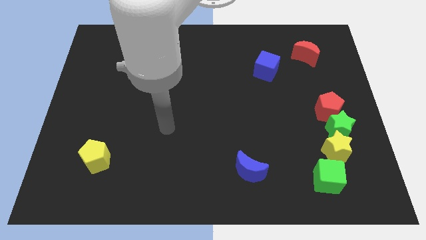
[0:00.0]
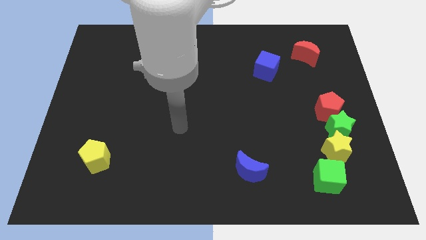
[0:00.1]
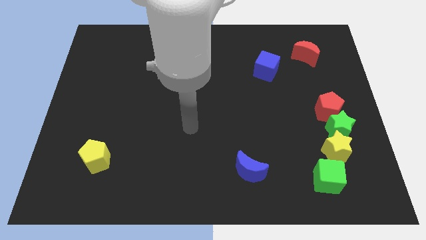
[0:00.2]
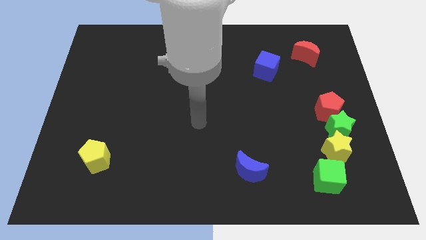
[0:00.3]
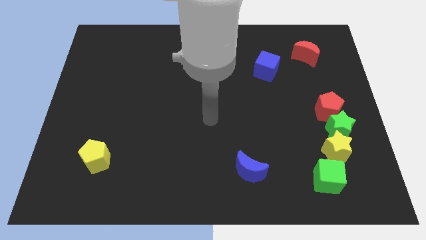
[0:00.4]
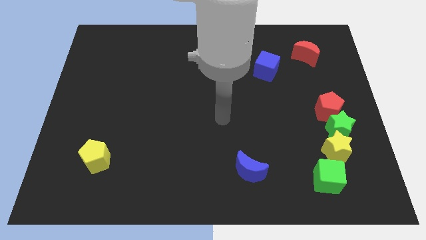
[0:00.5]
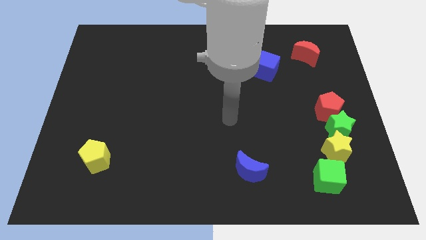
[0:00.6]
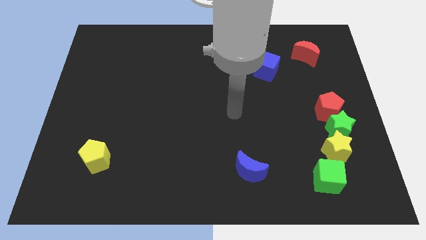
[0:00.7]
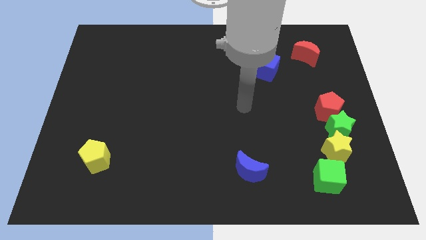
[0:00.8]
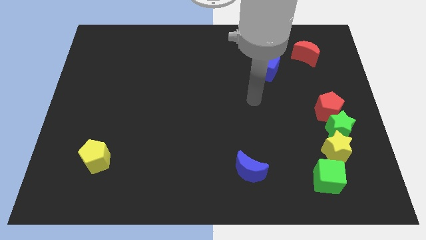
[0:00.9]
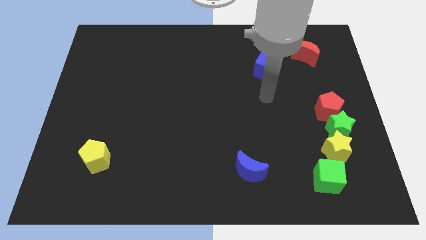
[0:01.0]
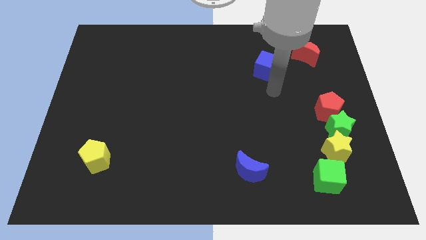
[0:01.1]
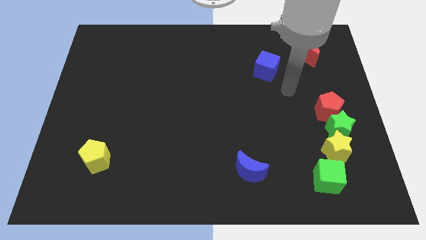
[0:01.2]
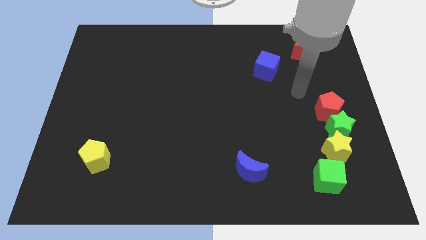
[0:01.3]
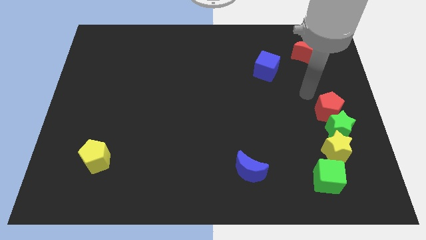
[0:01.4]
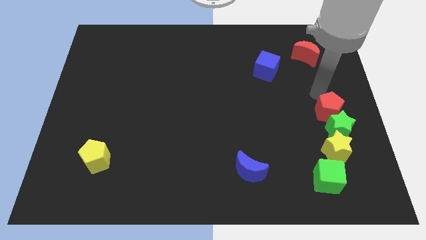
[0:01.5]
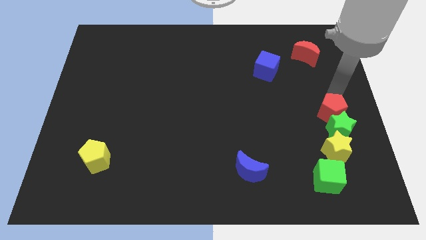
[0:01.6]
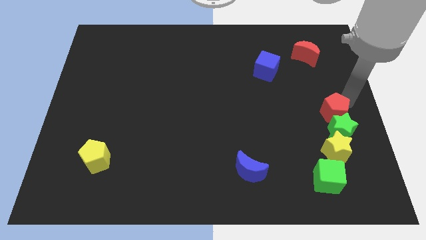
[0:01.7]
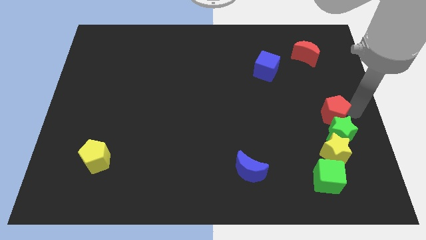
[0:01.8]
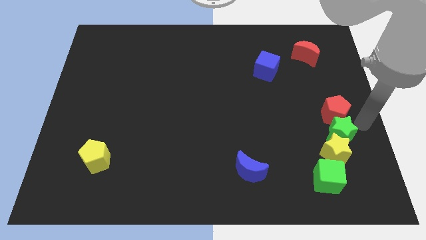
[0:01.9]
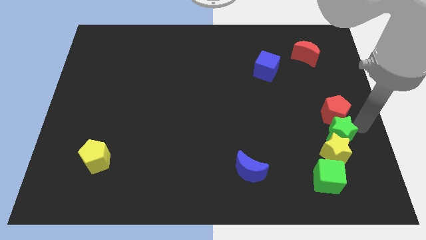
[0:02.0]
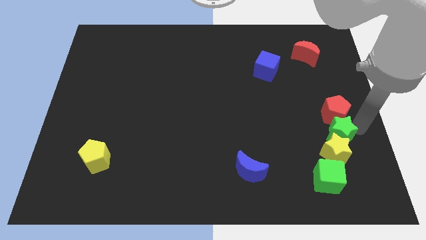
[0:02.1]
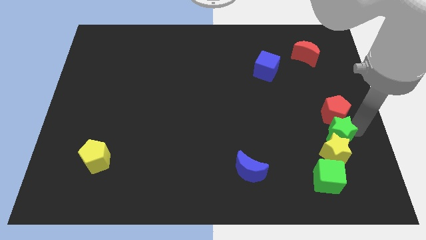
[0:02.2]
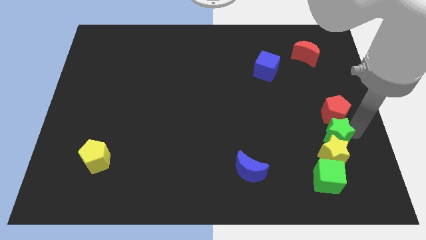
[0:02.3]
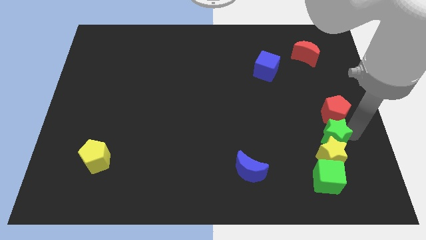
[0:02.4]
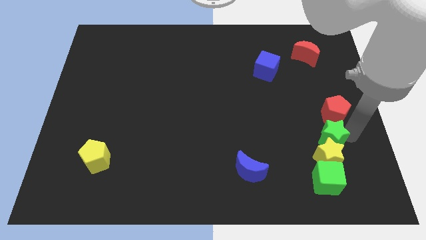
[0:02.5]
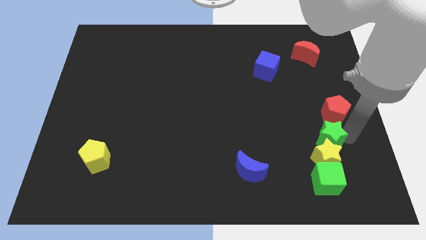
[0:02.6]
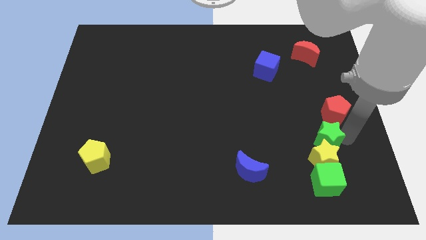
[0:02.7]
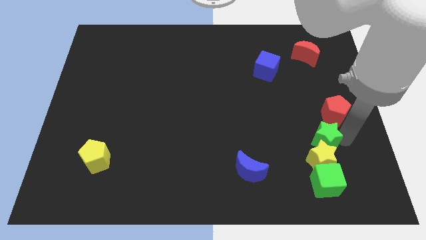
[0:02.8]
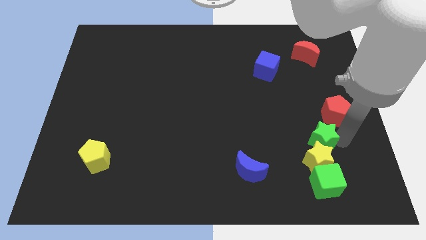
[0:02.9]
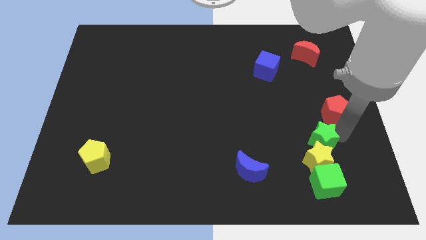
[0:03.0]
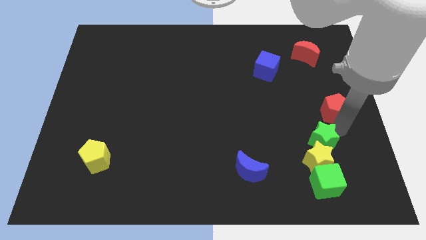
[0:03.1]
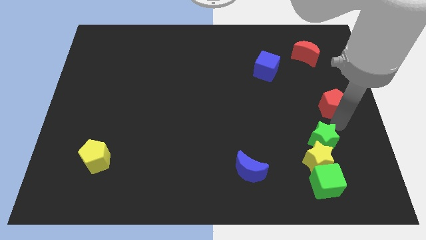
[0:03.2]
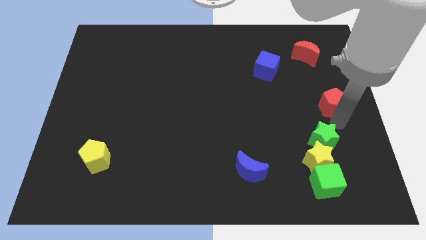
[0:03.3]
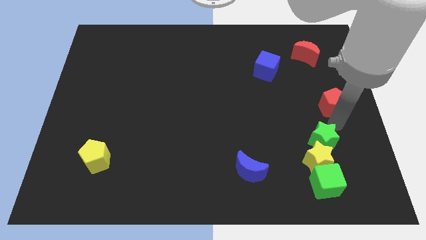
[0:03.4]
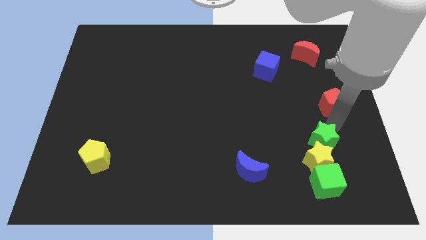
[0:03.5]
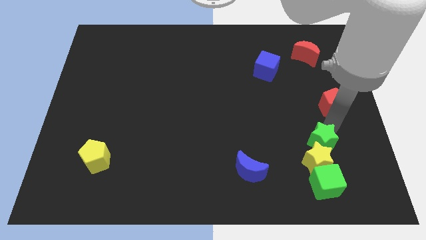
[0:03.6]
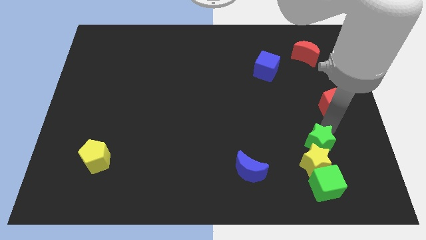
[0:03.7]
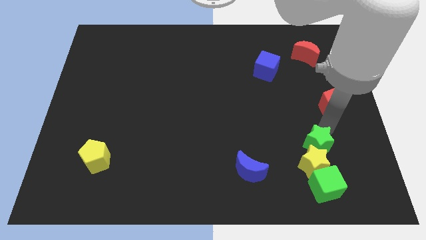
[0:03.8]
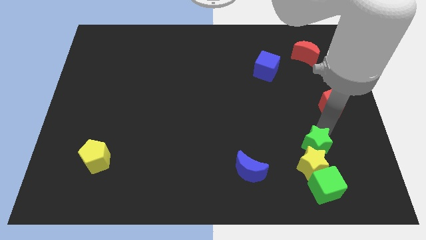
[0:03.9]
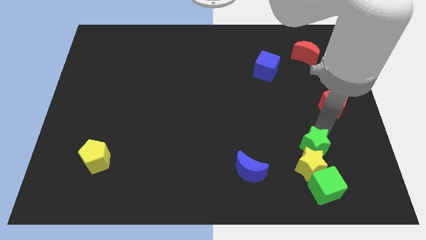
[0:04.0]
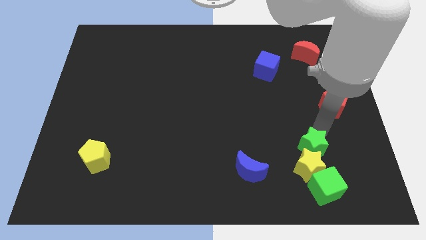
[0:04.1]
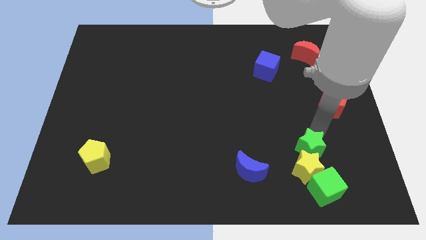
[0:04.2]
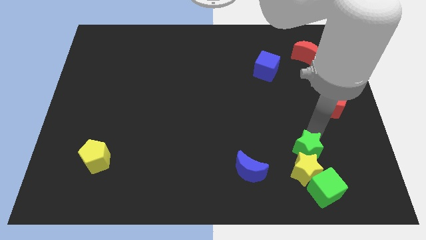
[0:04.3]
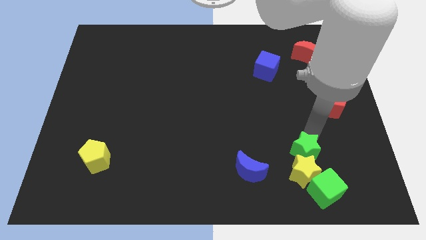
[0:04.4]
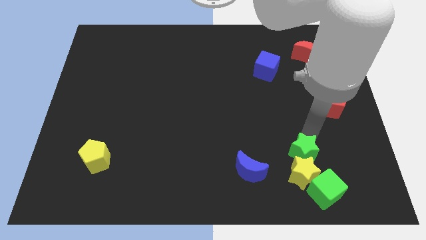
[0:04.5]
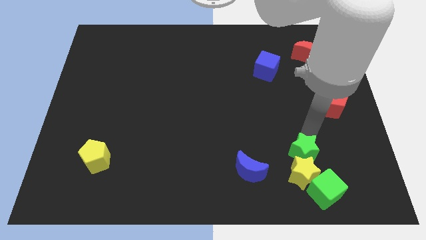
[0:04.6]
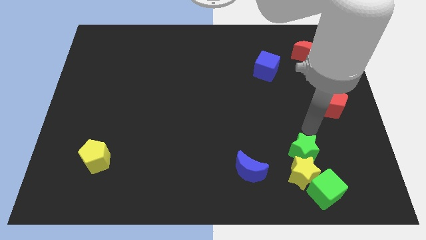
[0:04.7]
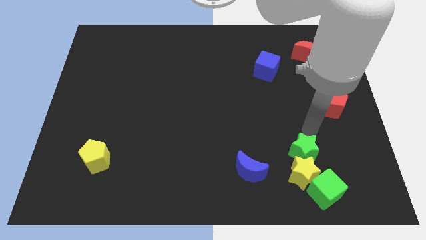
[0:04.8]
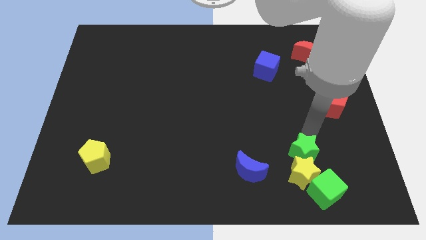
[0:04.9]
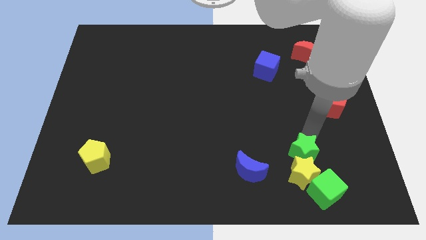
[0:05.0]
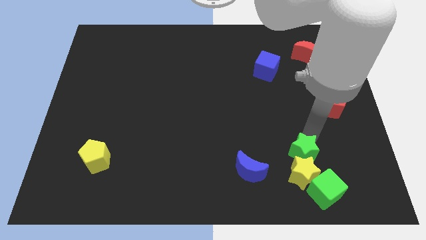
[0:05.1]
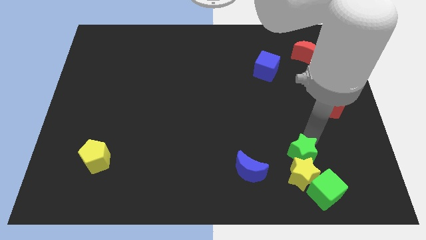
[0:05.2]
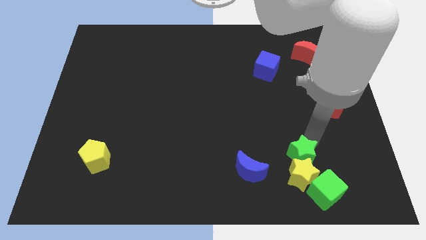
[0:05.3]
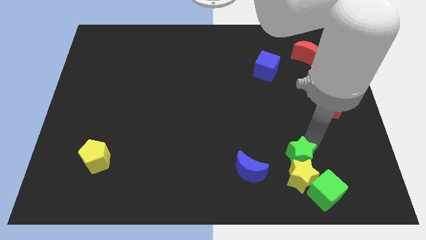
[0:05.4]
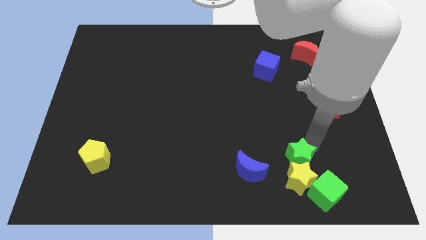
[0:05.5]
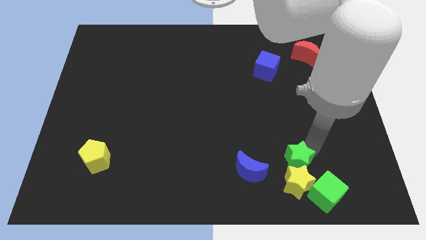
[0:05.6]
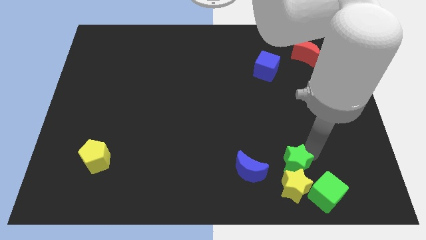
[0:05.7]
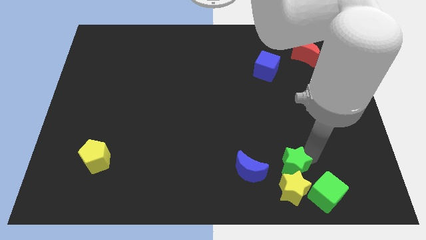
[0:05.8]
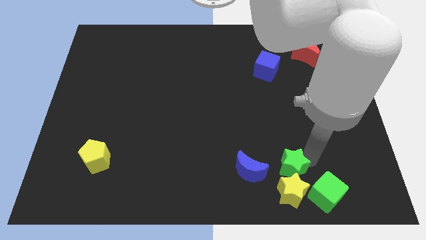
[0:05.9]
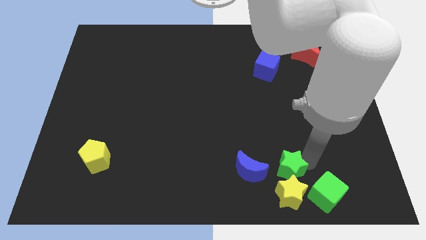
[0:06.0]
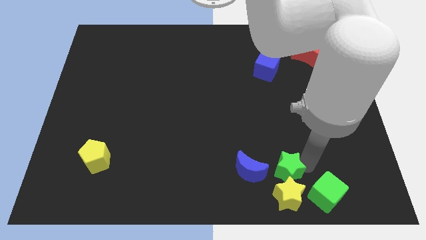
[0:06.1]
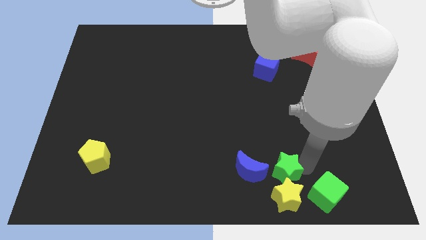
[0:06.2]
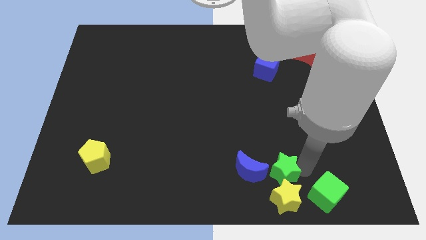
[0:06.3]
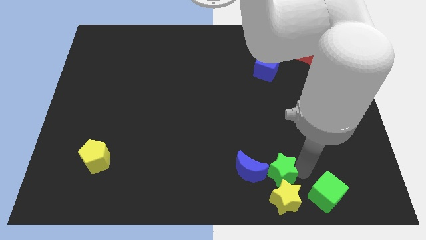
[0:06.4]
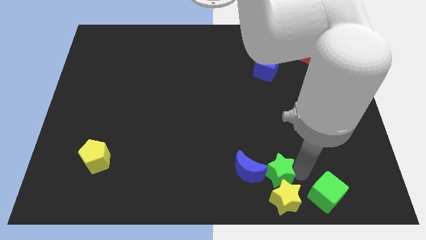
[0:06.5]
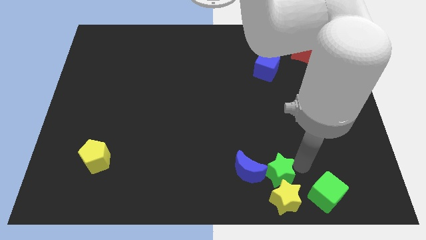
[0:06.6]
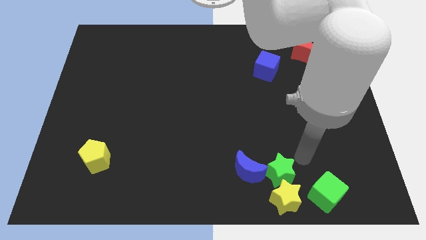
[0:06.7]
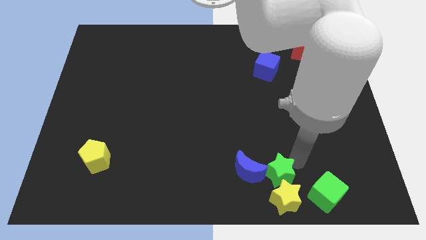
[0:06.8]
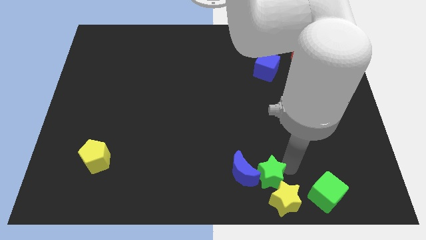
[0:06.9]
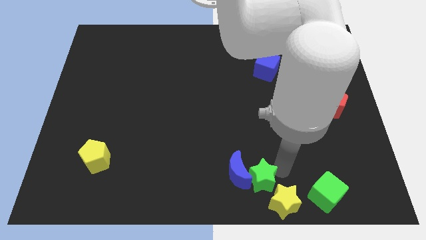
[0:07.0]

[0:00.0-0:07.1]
slide the green star to the bottom side
